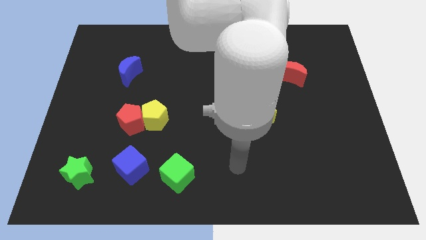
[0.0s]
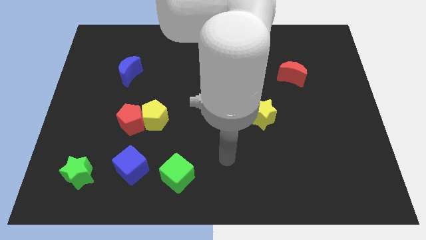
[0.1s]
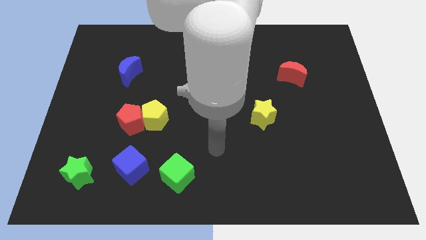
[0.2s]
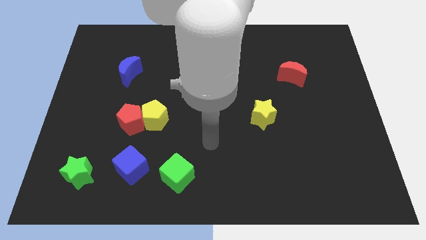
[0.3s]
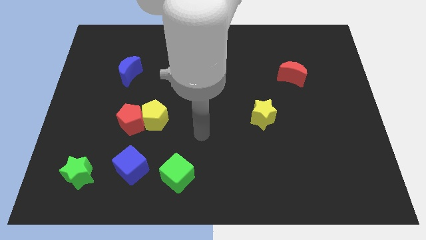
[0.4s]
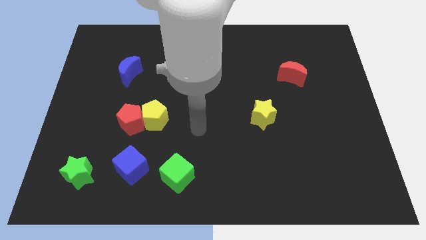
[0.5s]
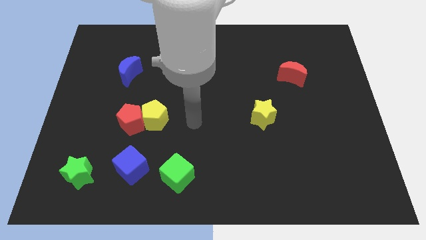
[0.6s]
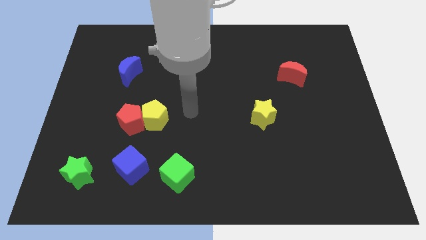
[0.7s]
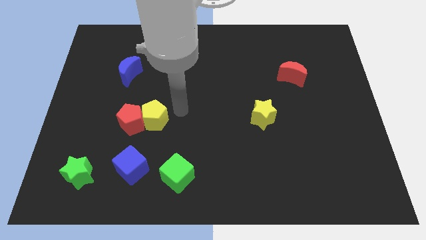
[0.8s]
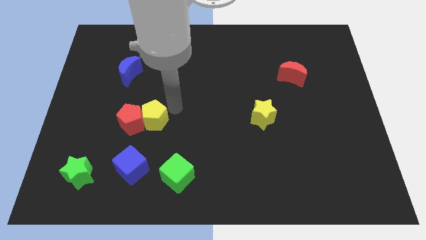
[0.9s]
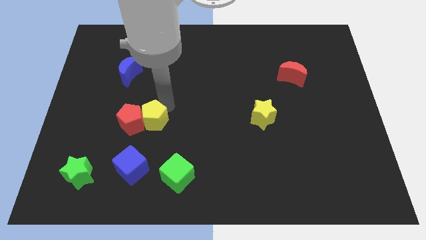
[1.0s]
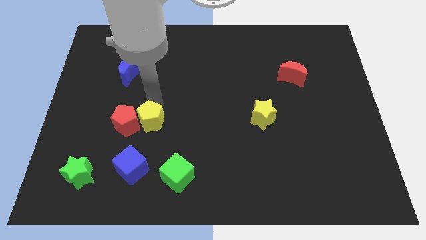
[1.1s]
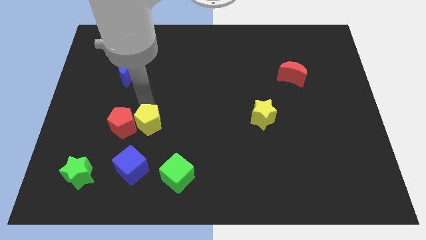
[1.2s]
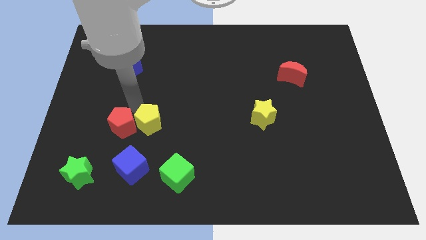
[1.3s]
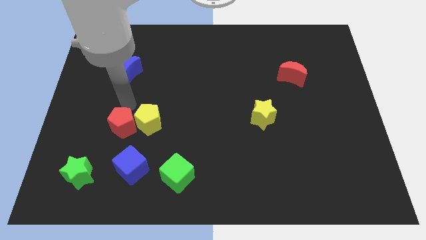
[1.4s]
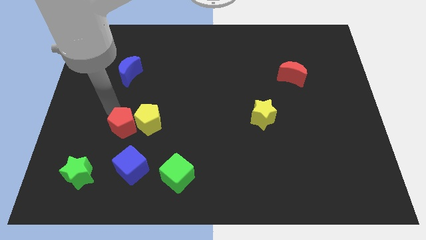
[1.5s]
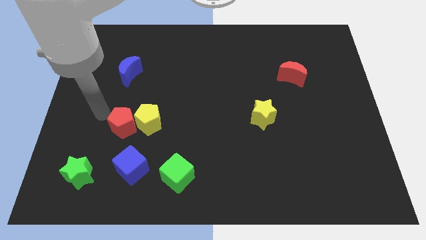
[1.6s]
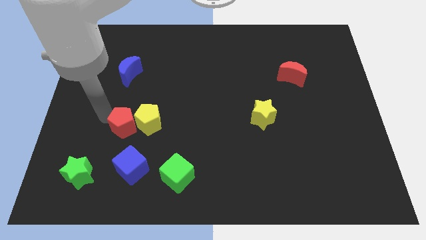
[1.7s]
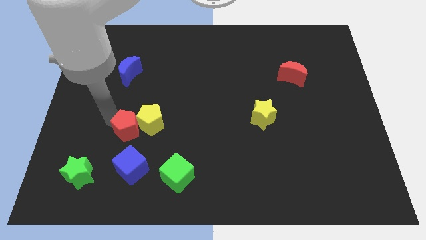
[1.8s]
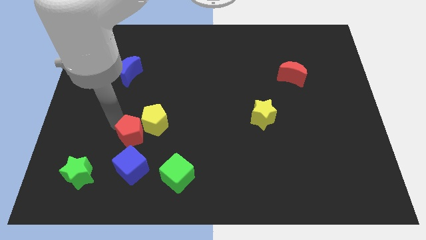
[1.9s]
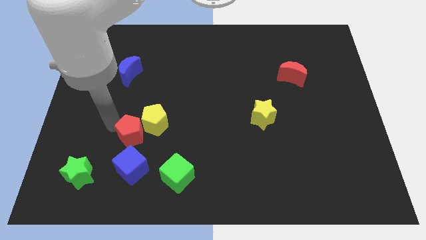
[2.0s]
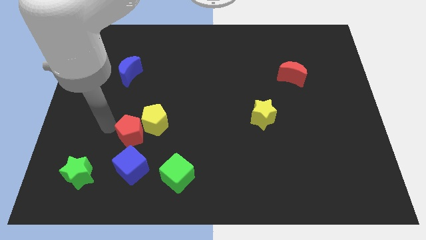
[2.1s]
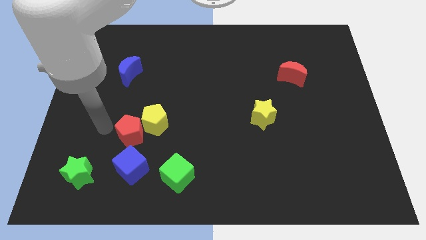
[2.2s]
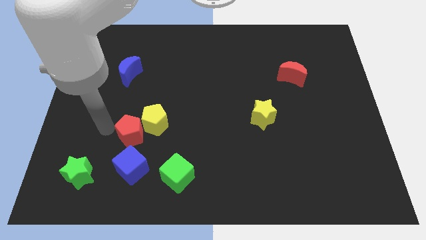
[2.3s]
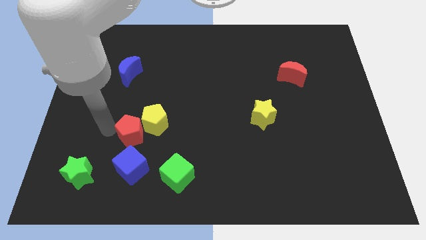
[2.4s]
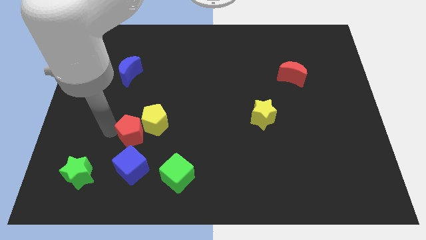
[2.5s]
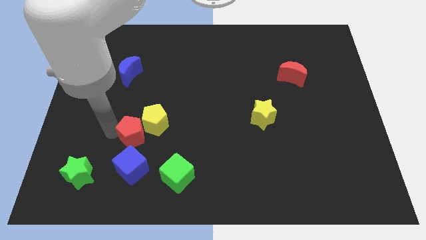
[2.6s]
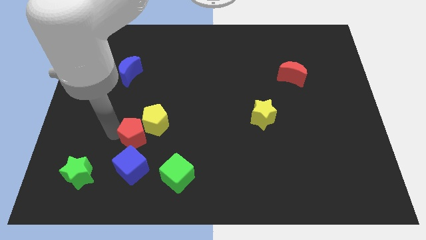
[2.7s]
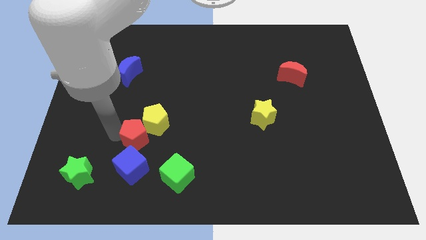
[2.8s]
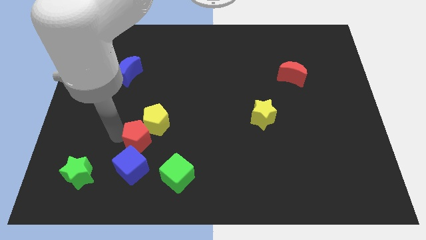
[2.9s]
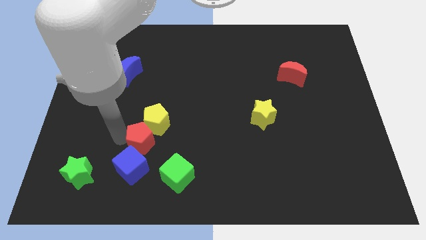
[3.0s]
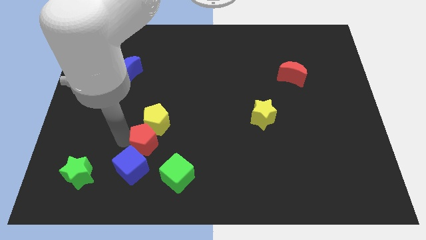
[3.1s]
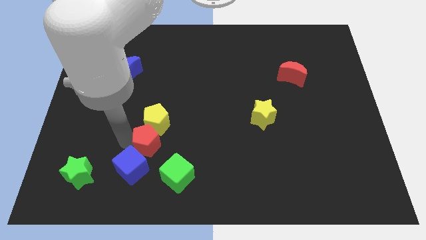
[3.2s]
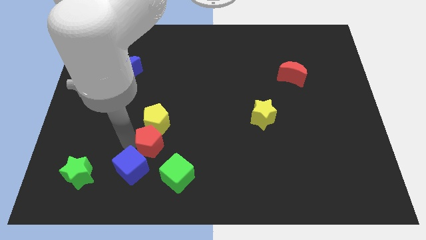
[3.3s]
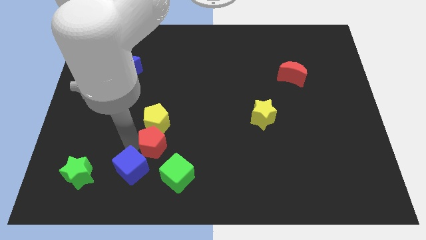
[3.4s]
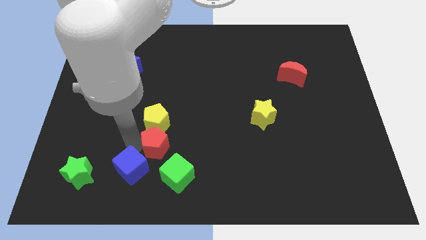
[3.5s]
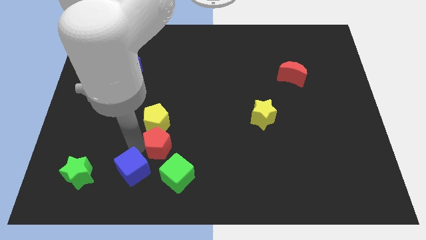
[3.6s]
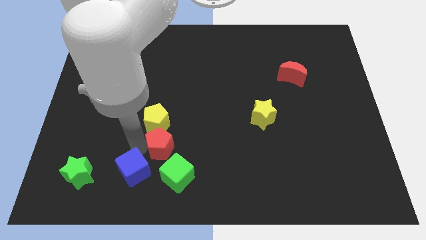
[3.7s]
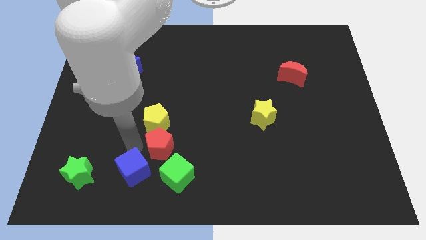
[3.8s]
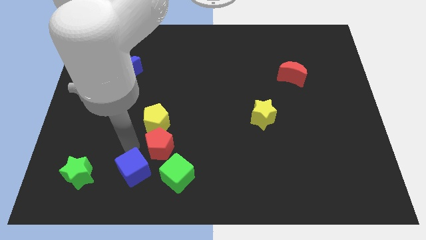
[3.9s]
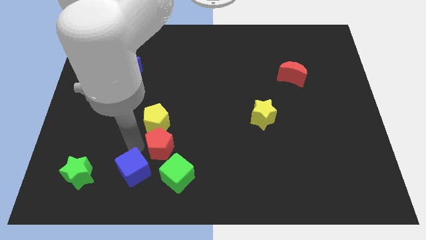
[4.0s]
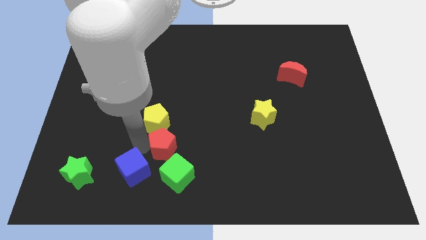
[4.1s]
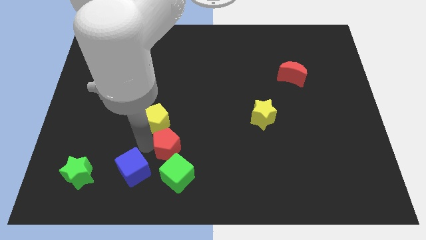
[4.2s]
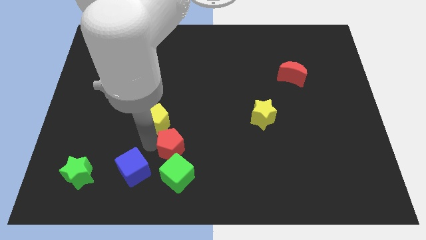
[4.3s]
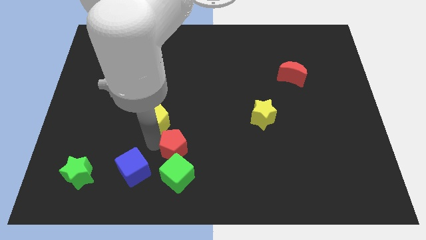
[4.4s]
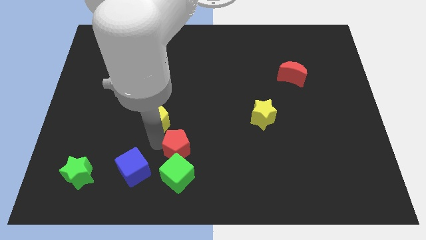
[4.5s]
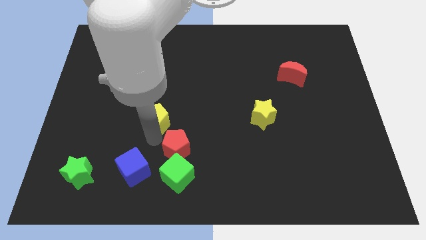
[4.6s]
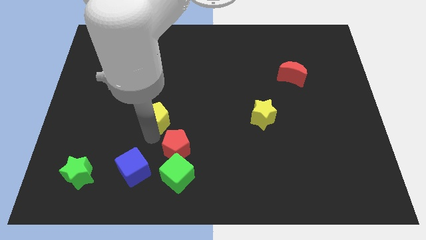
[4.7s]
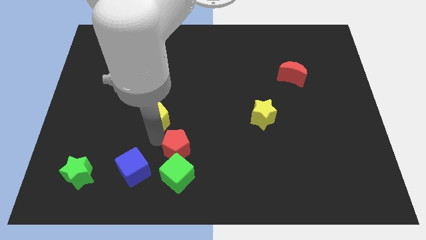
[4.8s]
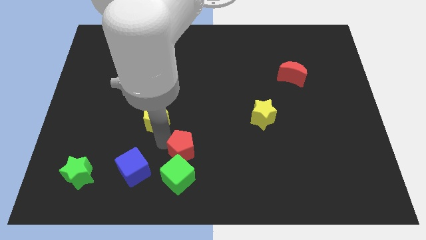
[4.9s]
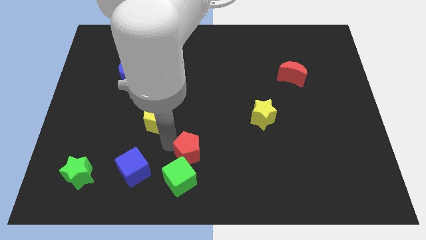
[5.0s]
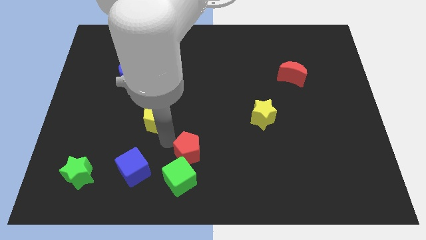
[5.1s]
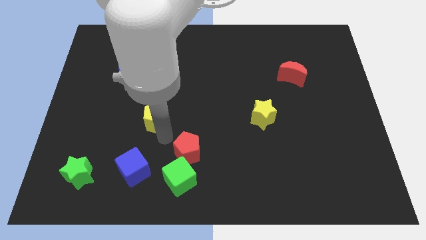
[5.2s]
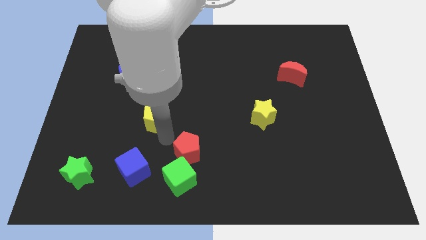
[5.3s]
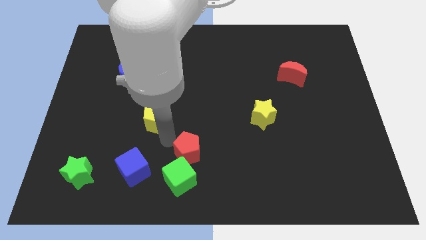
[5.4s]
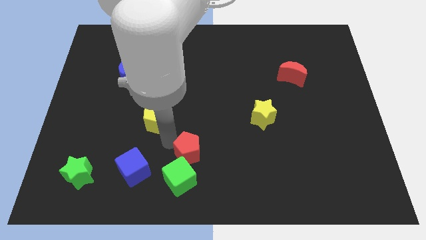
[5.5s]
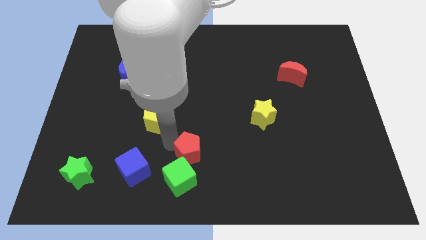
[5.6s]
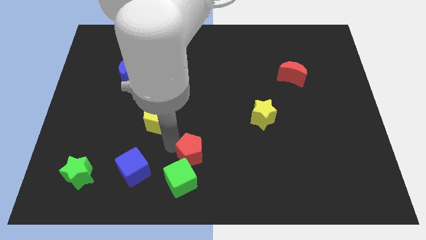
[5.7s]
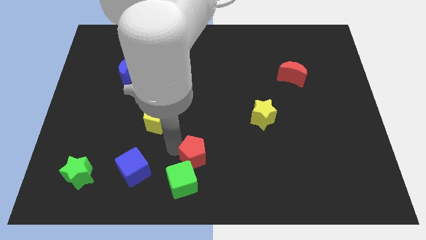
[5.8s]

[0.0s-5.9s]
push the red pentagon to the bottom

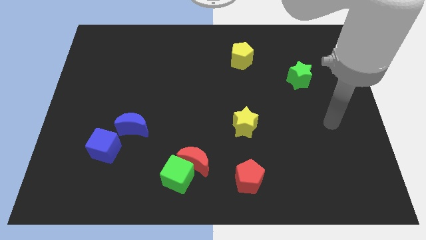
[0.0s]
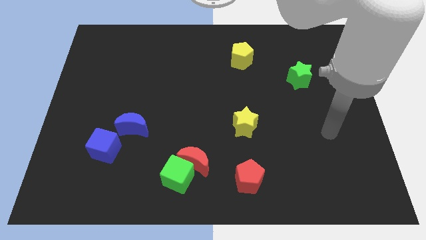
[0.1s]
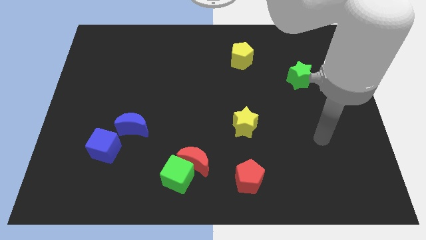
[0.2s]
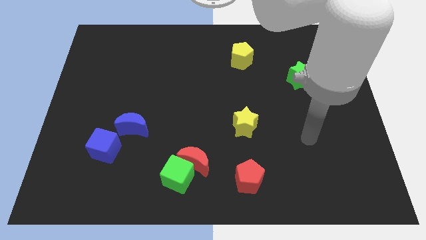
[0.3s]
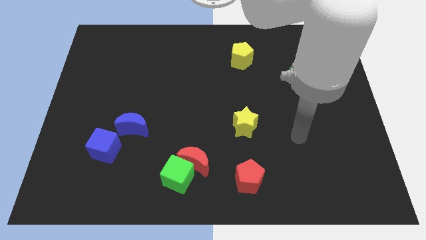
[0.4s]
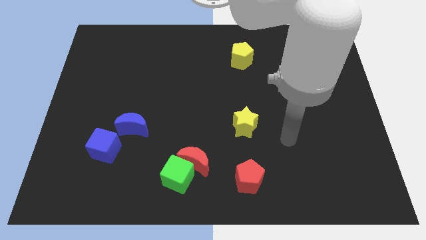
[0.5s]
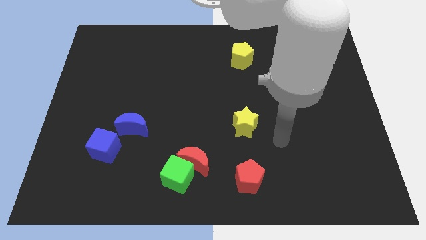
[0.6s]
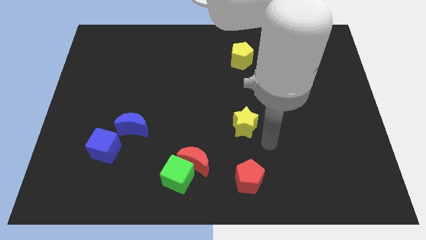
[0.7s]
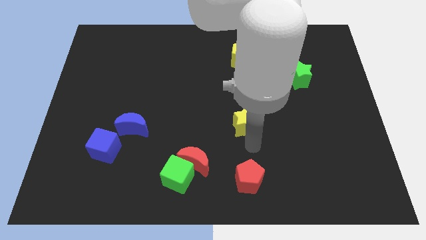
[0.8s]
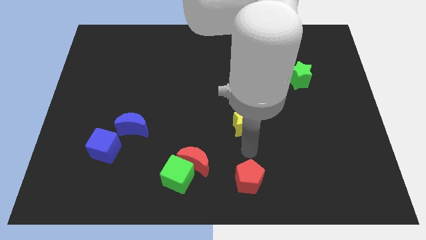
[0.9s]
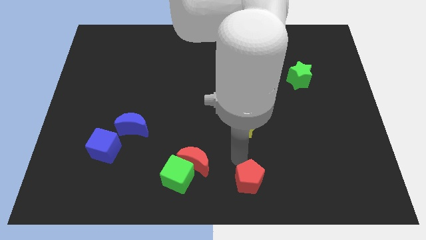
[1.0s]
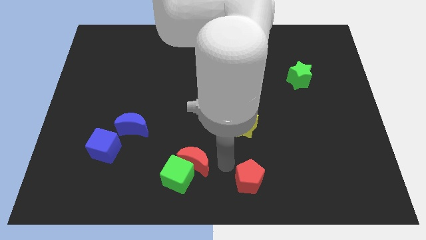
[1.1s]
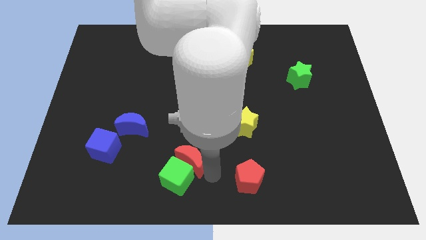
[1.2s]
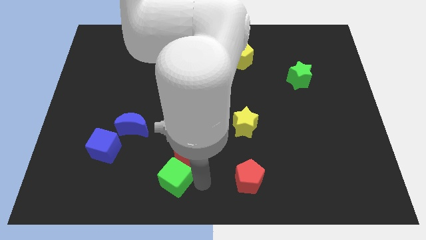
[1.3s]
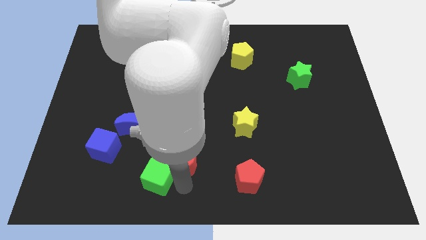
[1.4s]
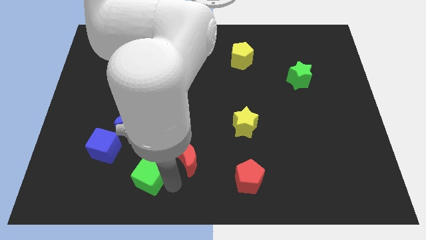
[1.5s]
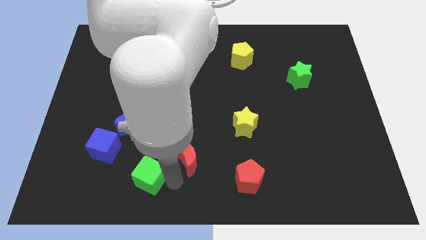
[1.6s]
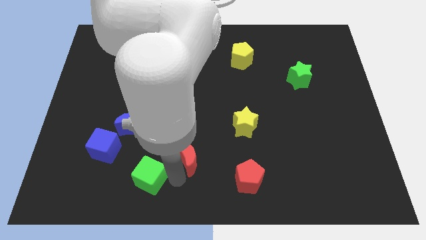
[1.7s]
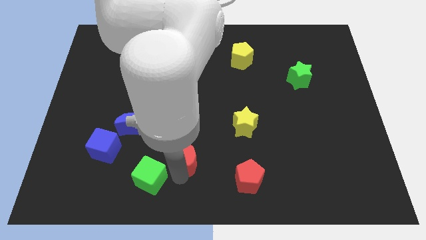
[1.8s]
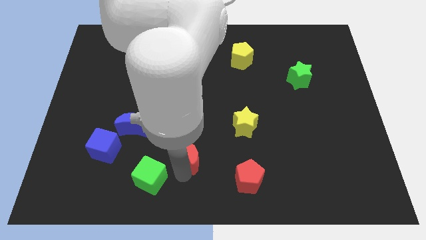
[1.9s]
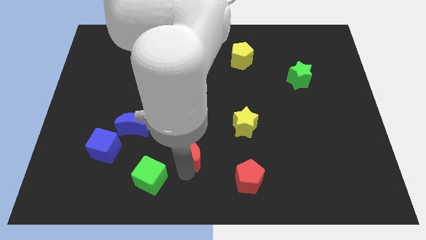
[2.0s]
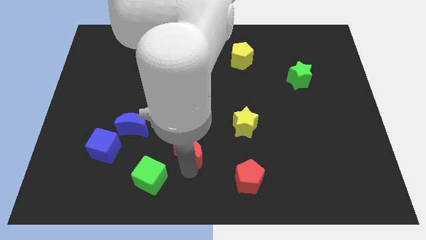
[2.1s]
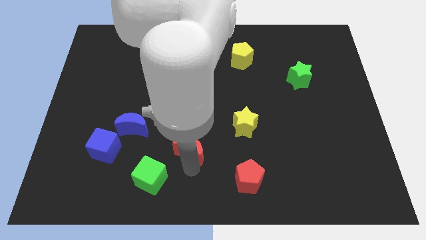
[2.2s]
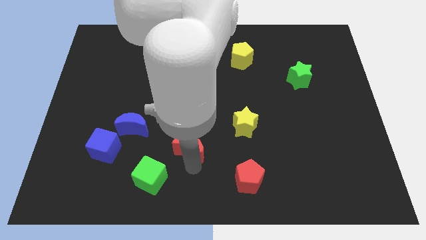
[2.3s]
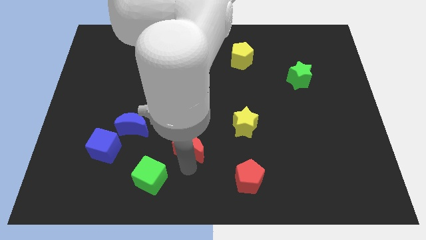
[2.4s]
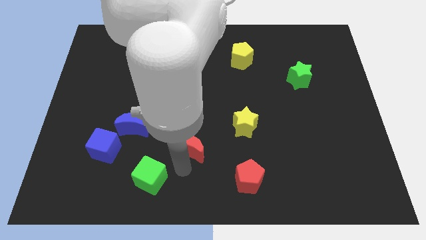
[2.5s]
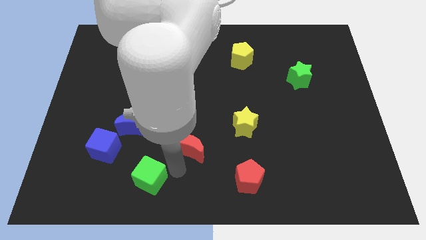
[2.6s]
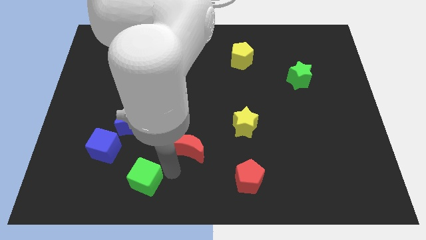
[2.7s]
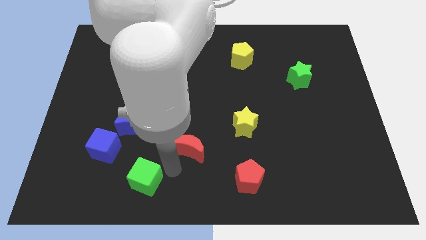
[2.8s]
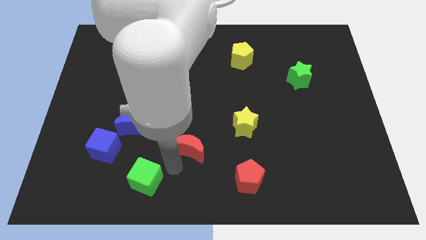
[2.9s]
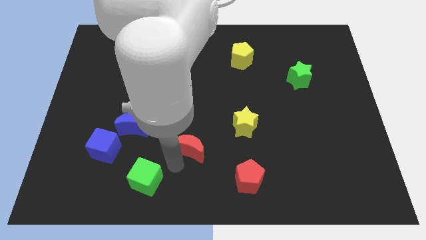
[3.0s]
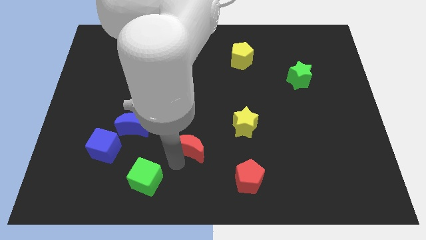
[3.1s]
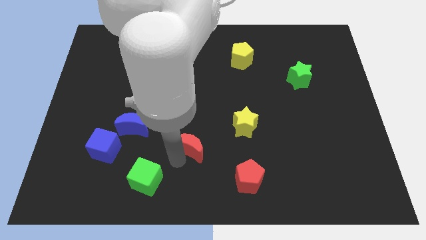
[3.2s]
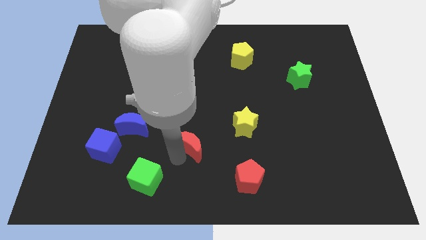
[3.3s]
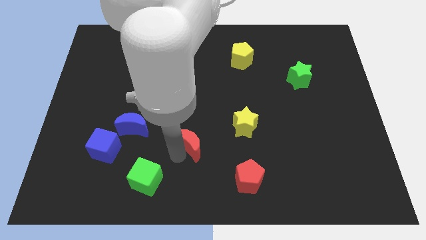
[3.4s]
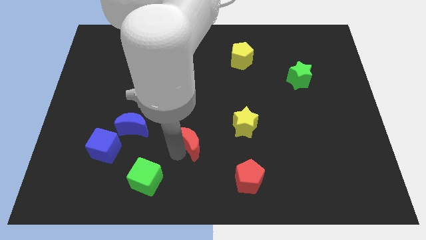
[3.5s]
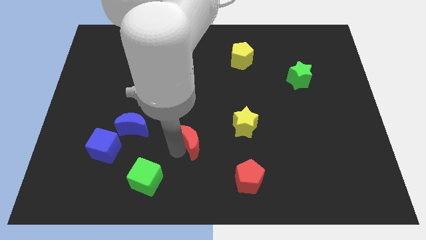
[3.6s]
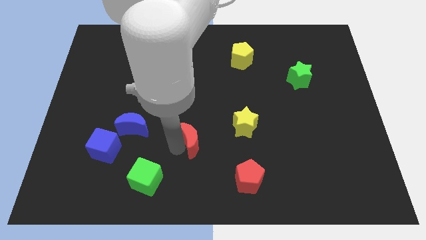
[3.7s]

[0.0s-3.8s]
push the red moon to the middle
